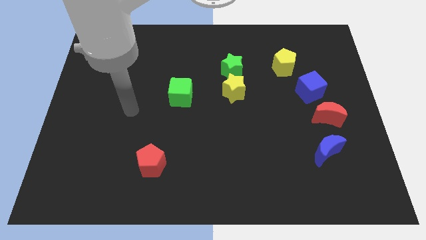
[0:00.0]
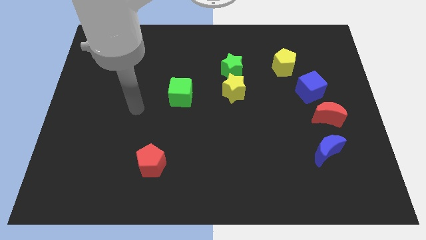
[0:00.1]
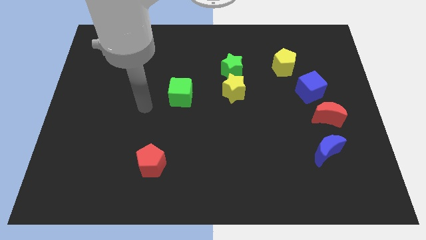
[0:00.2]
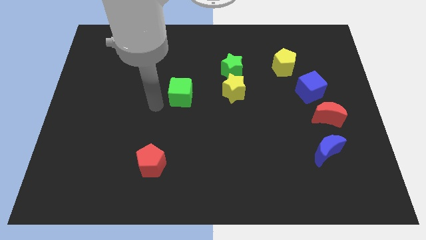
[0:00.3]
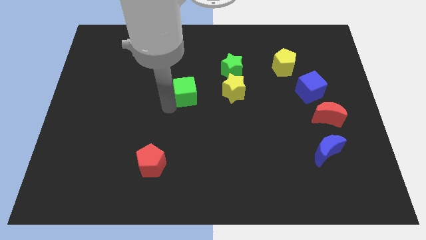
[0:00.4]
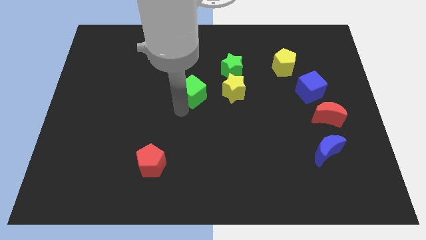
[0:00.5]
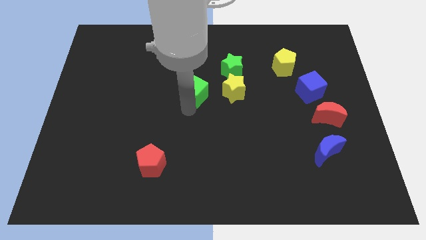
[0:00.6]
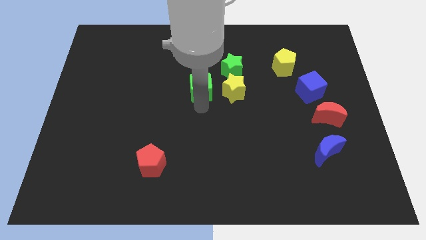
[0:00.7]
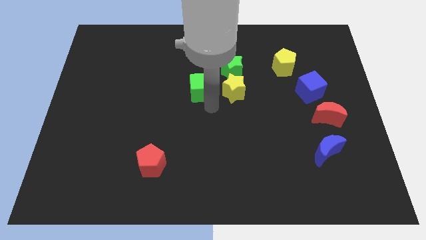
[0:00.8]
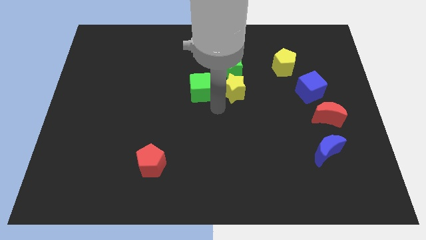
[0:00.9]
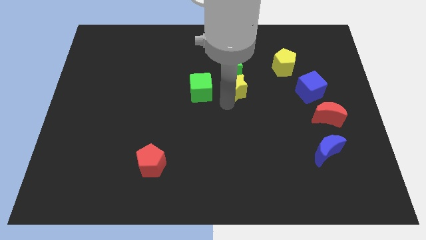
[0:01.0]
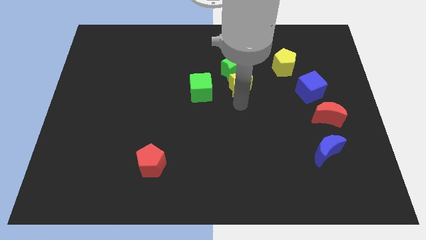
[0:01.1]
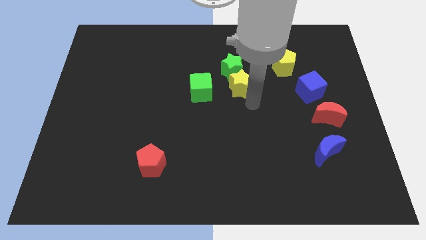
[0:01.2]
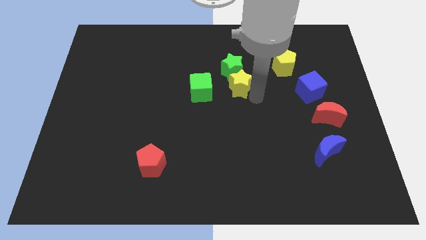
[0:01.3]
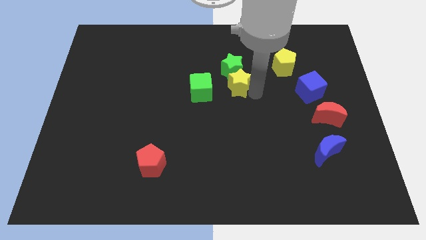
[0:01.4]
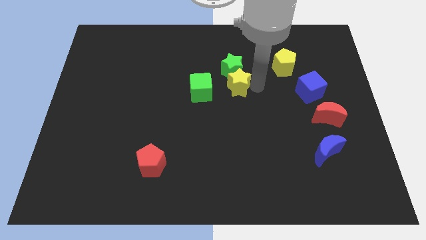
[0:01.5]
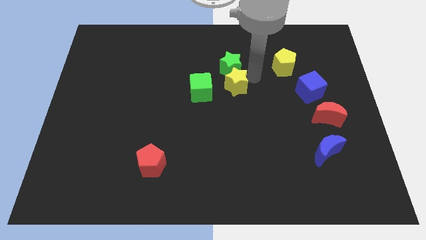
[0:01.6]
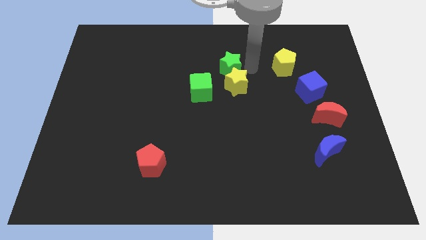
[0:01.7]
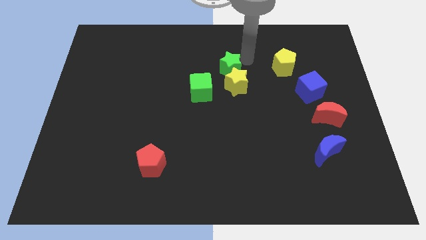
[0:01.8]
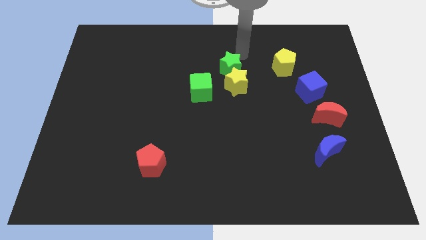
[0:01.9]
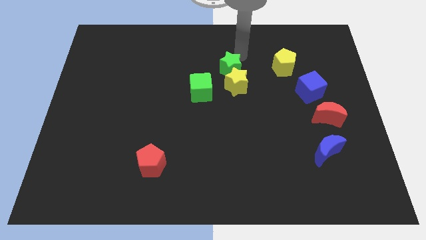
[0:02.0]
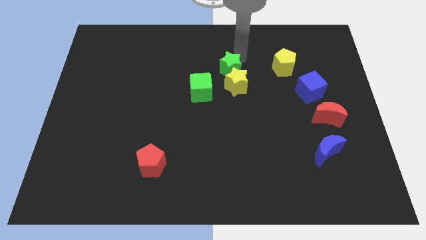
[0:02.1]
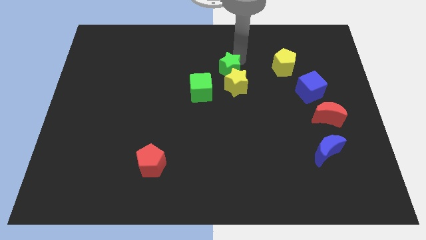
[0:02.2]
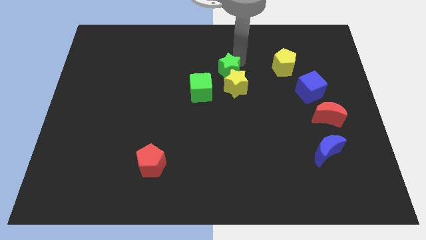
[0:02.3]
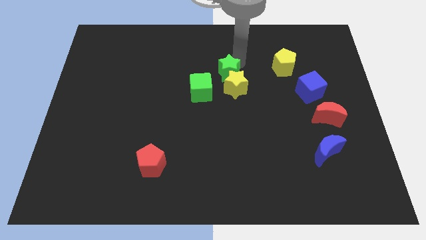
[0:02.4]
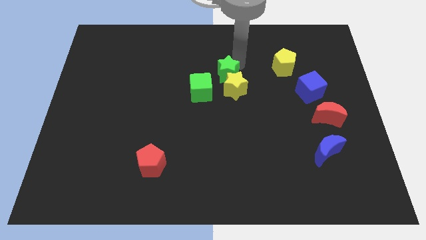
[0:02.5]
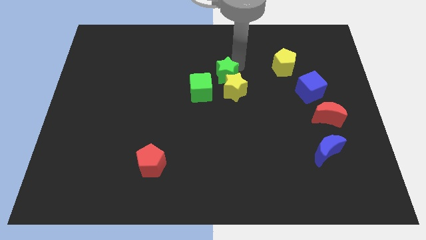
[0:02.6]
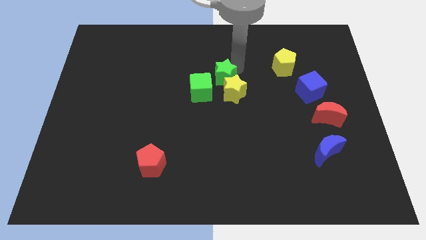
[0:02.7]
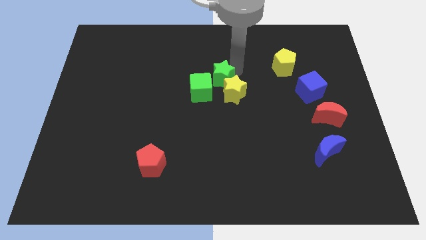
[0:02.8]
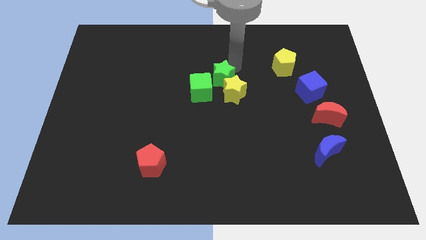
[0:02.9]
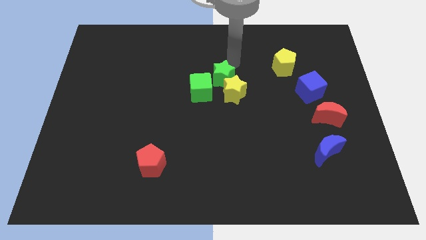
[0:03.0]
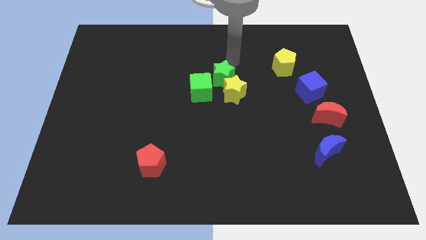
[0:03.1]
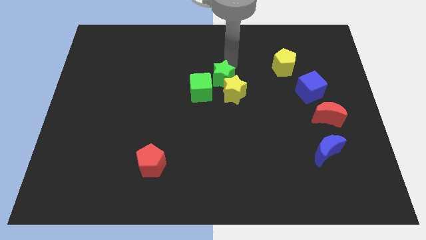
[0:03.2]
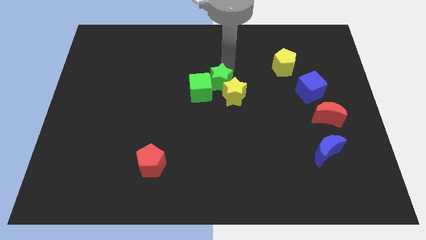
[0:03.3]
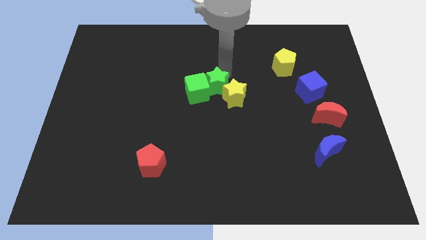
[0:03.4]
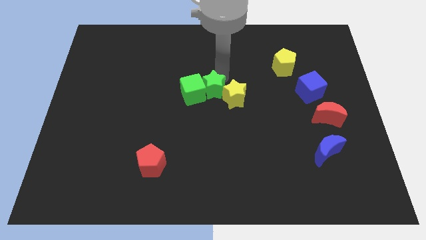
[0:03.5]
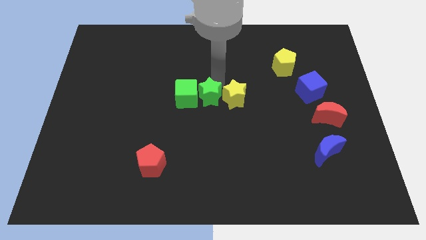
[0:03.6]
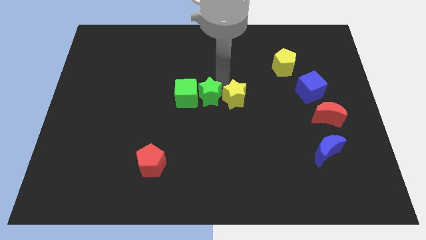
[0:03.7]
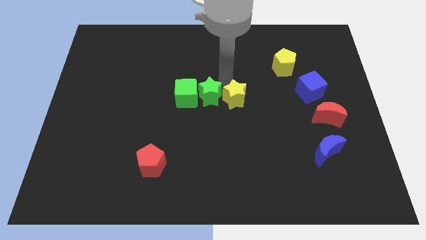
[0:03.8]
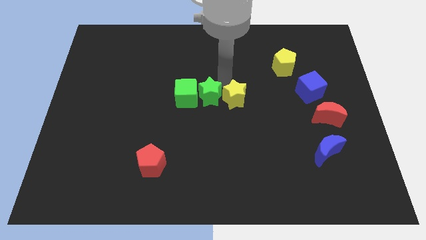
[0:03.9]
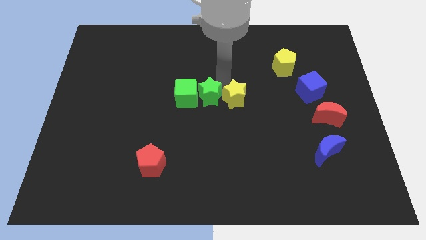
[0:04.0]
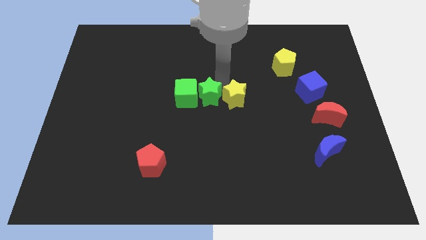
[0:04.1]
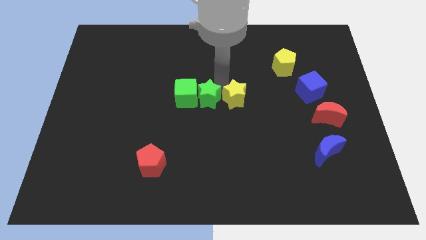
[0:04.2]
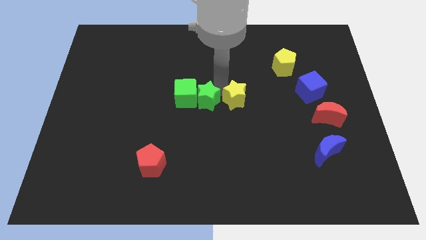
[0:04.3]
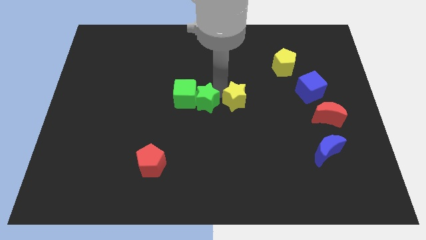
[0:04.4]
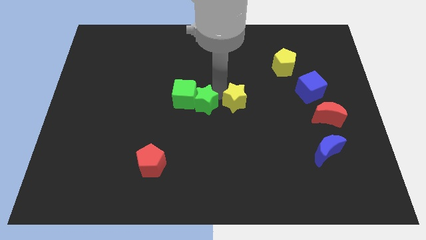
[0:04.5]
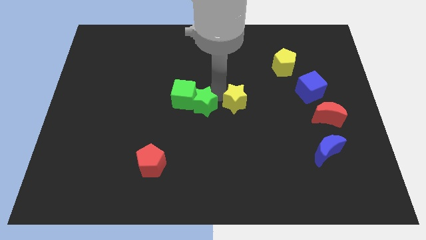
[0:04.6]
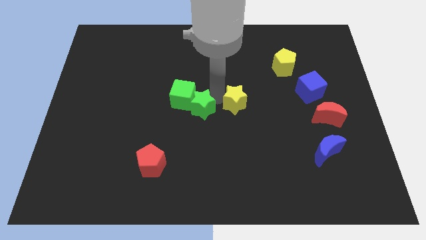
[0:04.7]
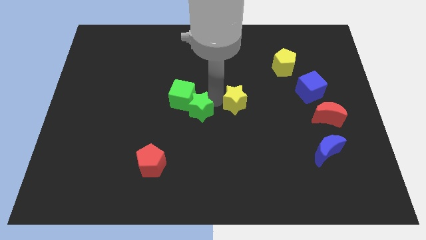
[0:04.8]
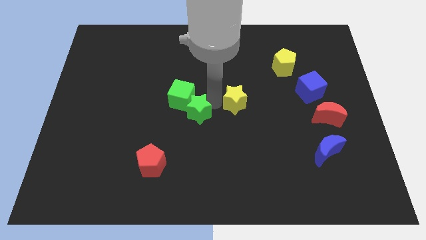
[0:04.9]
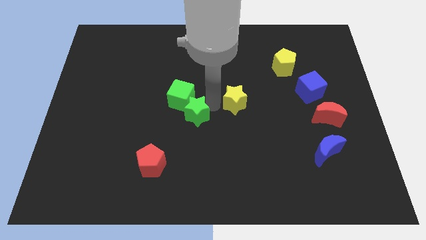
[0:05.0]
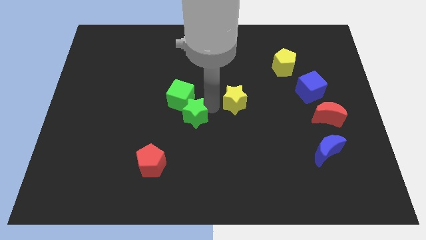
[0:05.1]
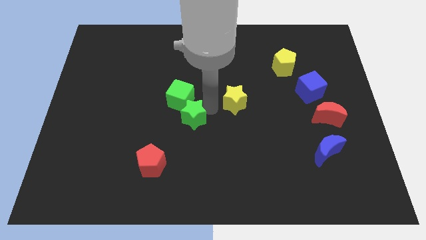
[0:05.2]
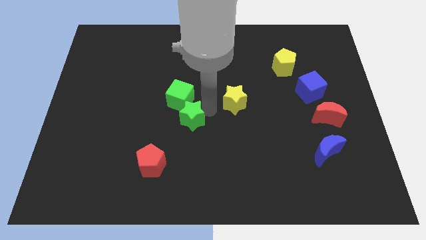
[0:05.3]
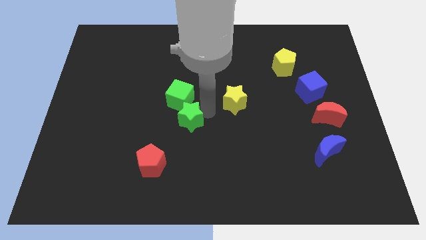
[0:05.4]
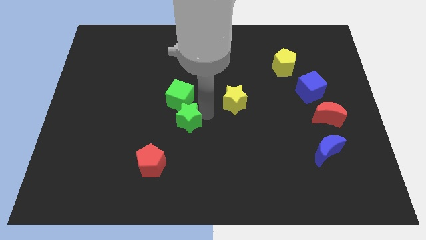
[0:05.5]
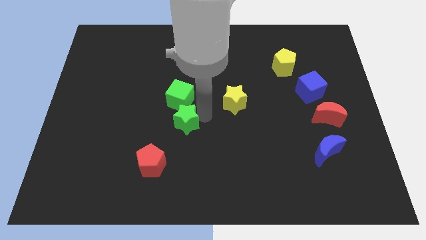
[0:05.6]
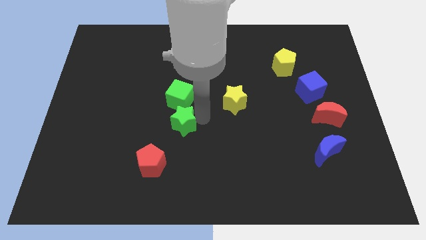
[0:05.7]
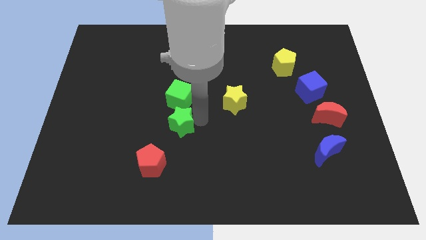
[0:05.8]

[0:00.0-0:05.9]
slide the green star down and to the left

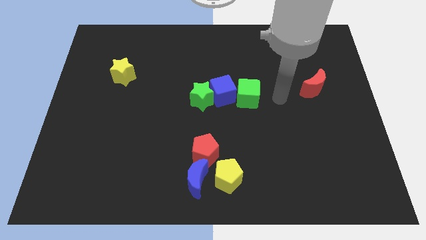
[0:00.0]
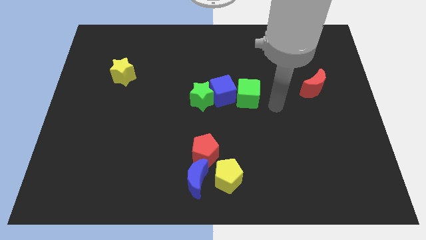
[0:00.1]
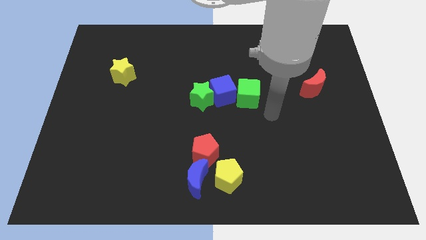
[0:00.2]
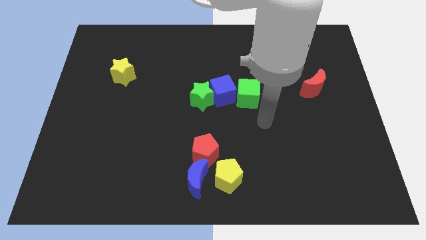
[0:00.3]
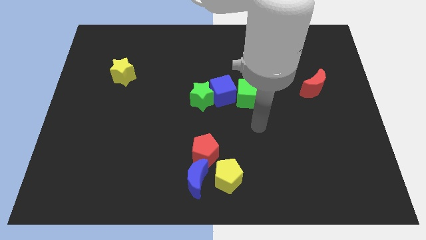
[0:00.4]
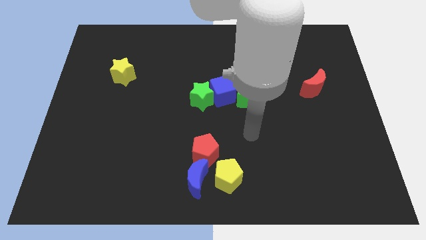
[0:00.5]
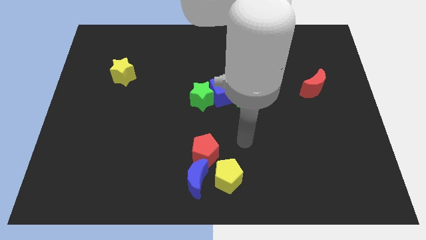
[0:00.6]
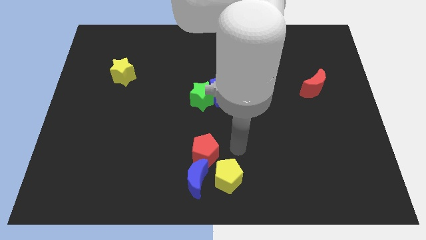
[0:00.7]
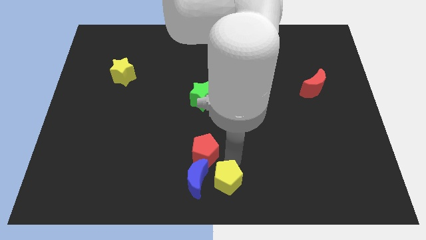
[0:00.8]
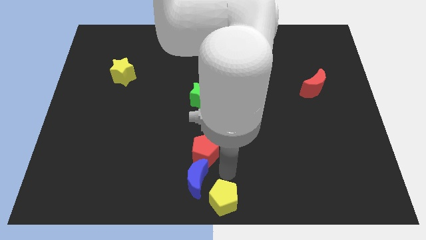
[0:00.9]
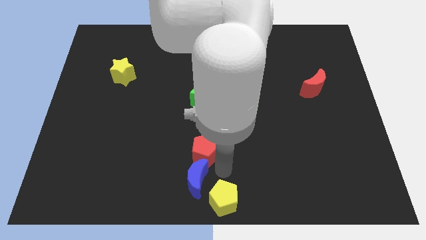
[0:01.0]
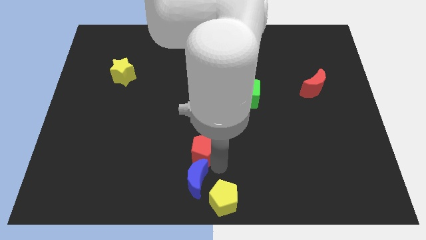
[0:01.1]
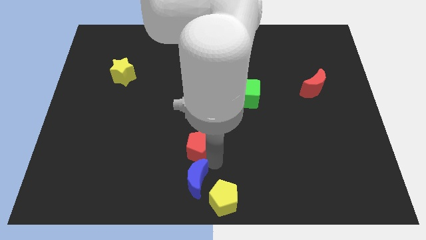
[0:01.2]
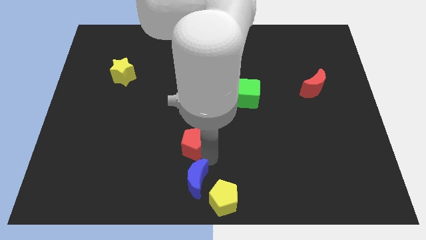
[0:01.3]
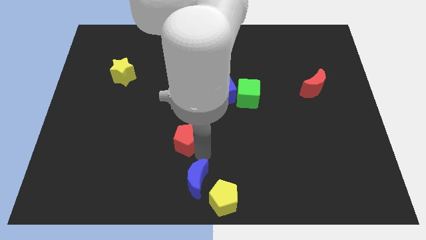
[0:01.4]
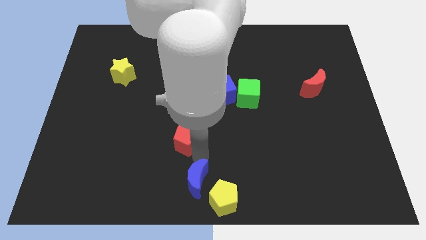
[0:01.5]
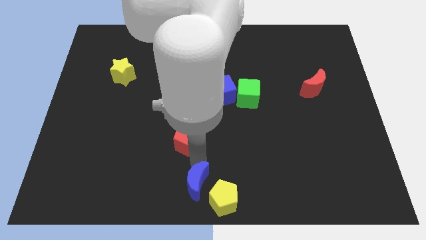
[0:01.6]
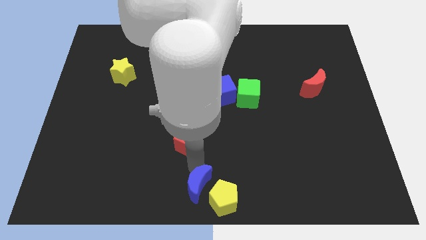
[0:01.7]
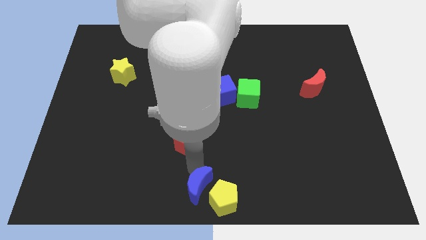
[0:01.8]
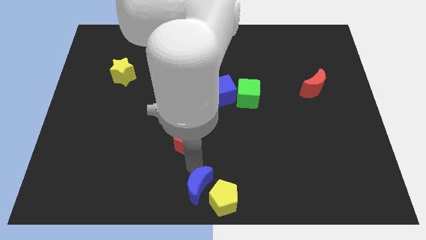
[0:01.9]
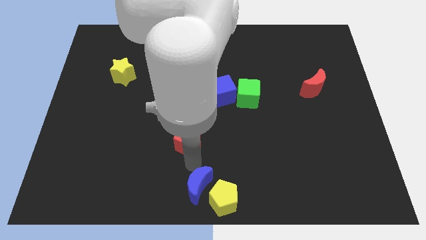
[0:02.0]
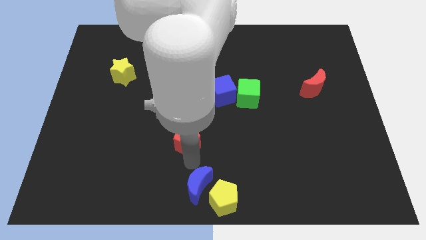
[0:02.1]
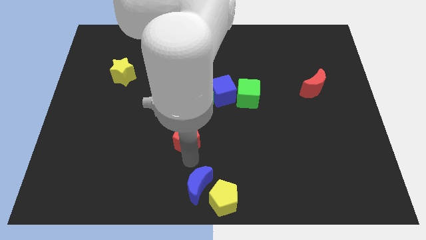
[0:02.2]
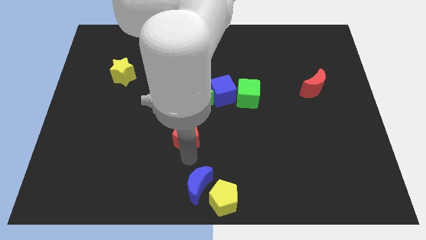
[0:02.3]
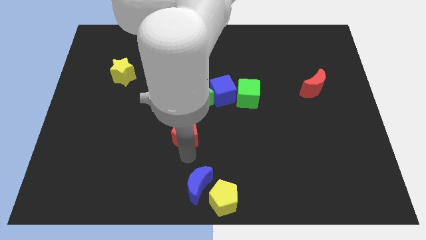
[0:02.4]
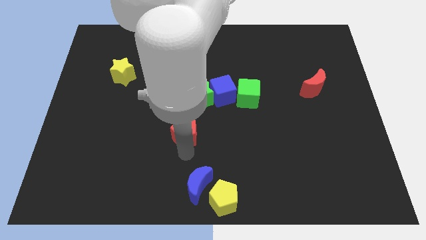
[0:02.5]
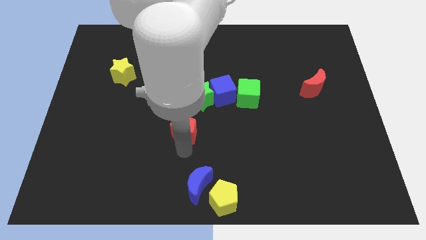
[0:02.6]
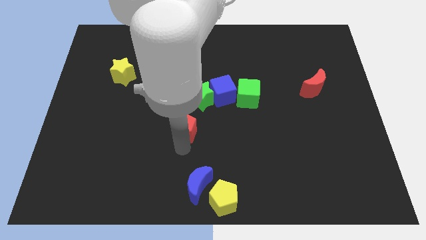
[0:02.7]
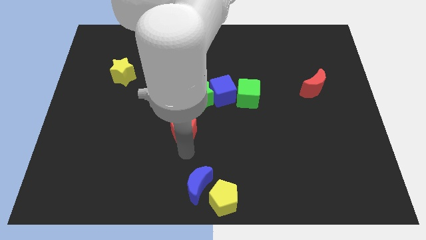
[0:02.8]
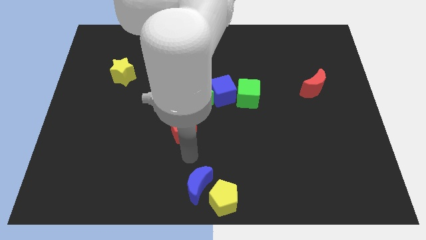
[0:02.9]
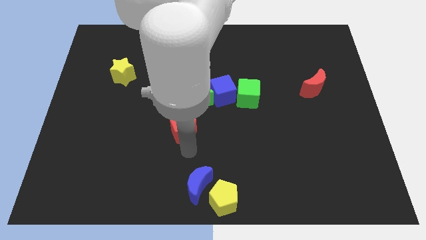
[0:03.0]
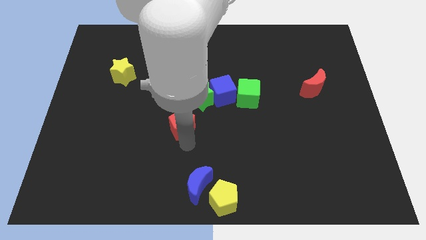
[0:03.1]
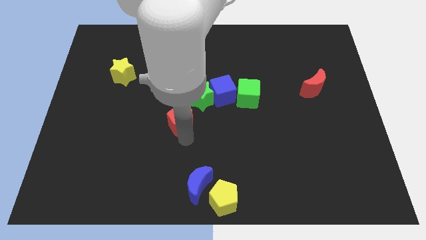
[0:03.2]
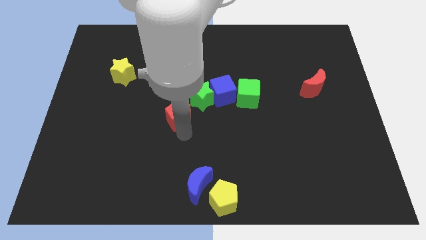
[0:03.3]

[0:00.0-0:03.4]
slightly slide the red pentagon up
